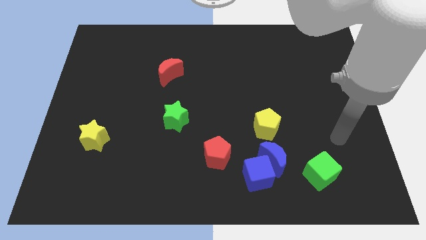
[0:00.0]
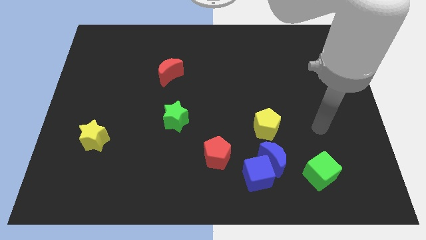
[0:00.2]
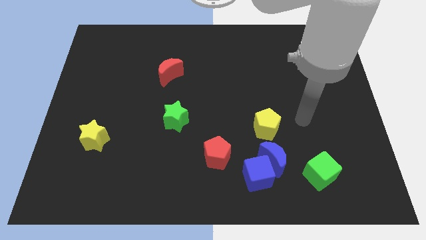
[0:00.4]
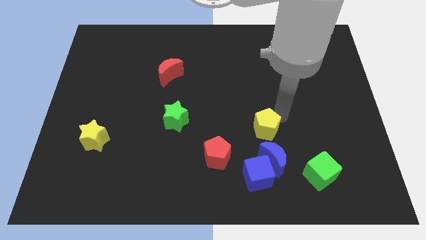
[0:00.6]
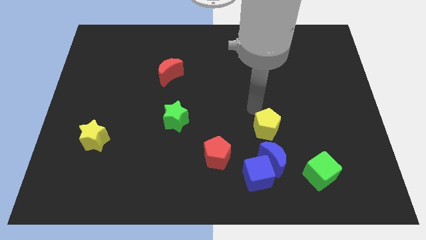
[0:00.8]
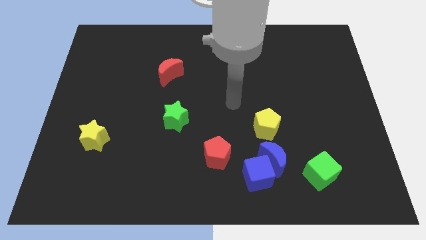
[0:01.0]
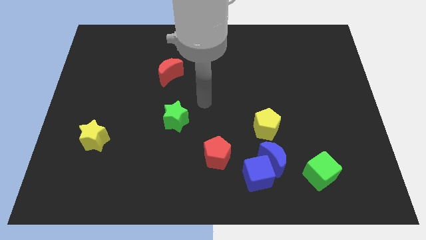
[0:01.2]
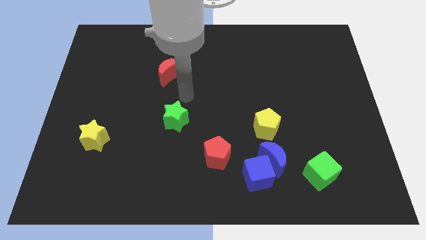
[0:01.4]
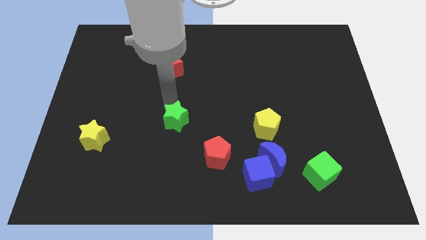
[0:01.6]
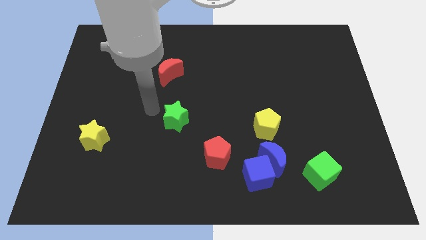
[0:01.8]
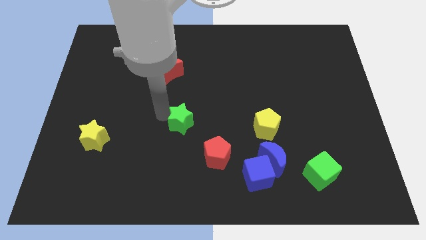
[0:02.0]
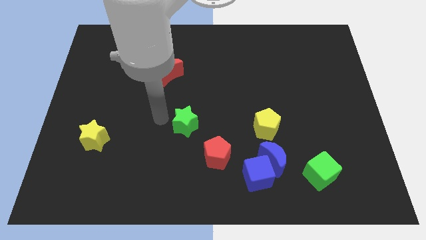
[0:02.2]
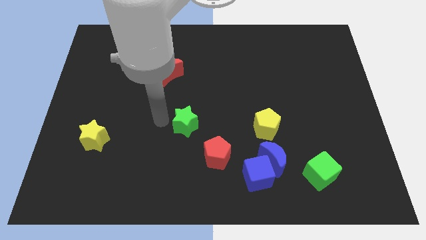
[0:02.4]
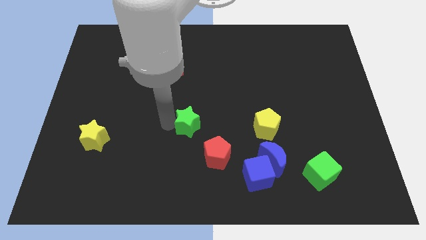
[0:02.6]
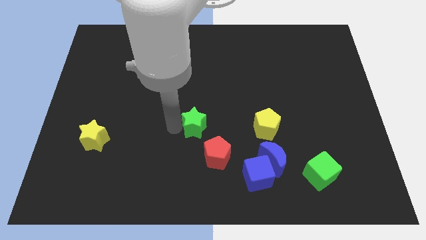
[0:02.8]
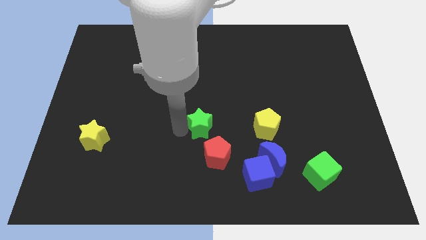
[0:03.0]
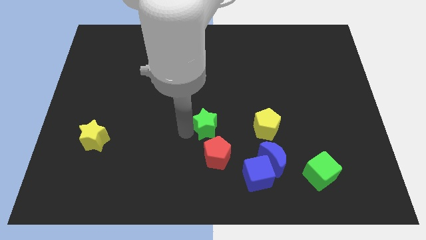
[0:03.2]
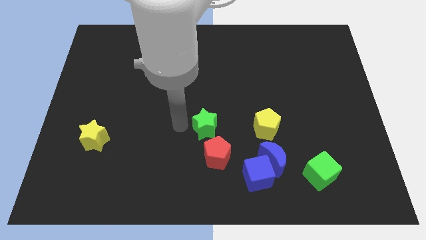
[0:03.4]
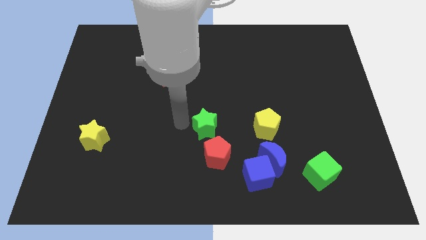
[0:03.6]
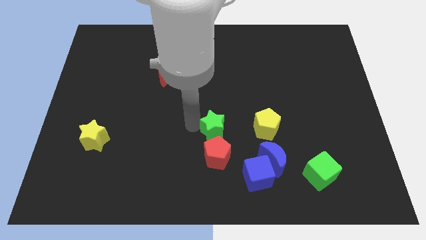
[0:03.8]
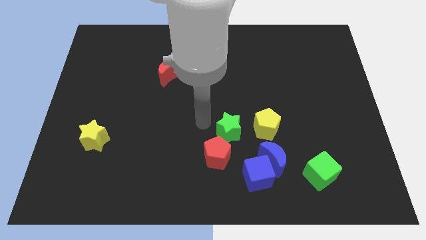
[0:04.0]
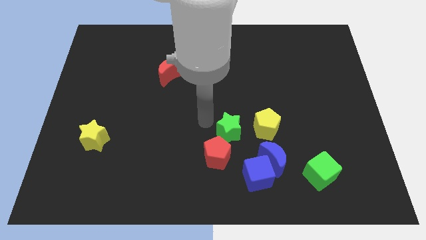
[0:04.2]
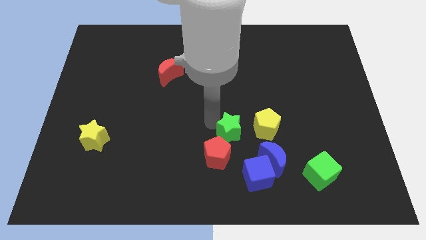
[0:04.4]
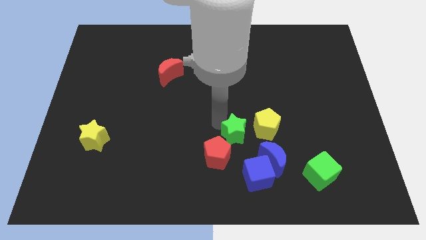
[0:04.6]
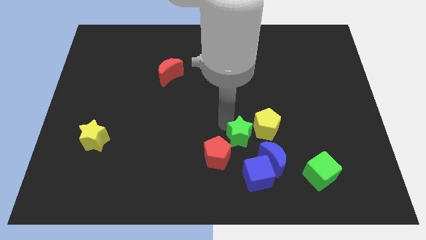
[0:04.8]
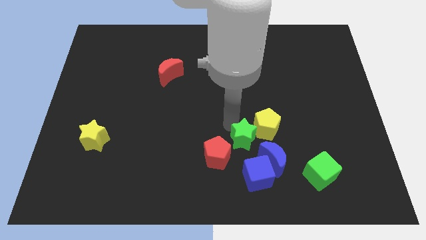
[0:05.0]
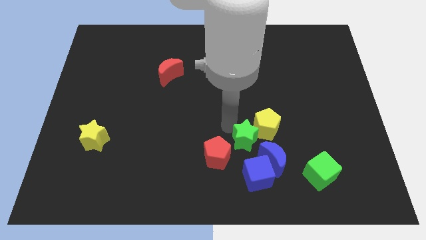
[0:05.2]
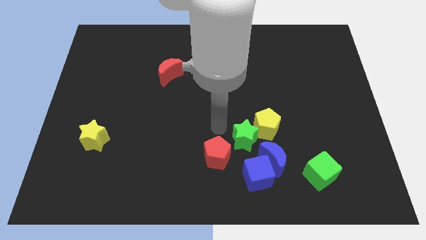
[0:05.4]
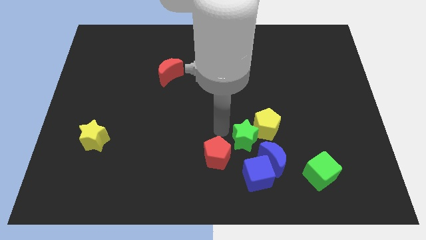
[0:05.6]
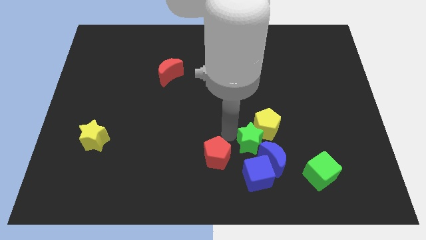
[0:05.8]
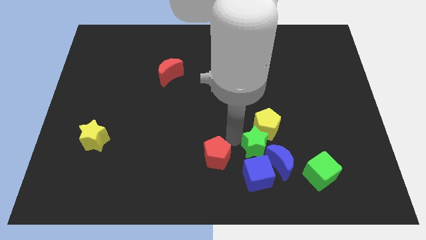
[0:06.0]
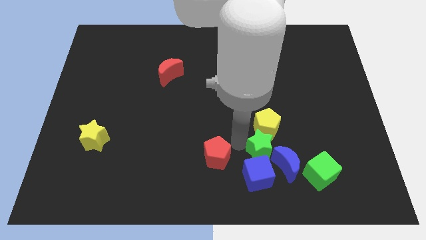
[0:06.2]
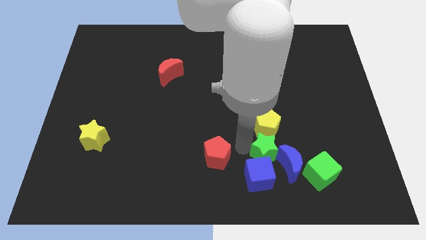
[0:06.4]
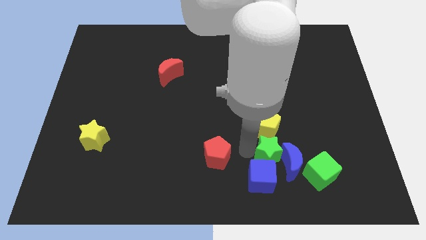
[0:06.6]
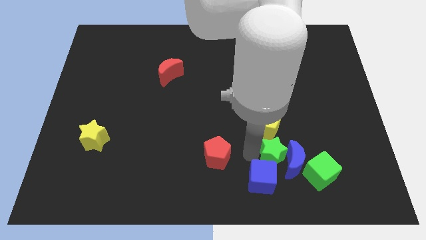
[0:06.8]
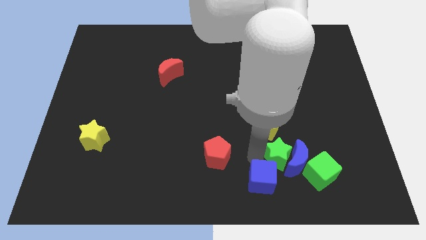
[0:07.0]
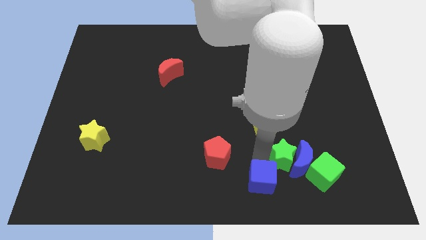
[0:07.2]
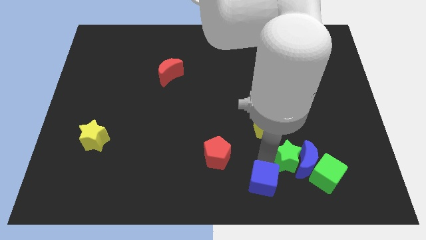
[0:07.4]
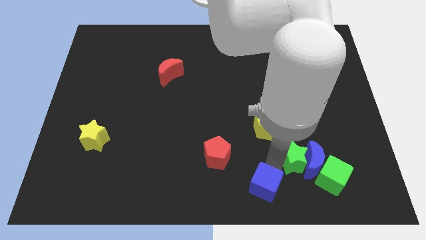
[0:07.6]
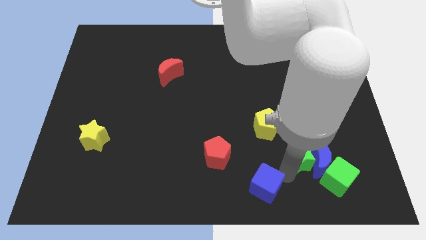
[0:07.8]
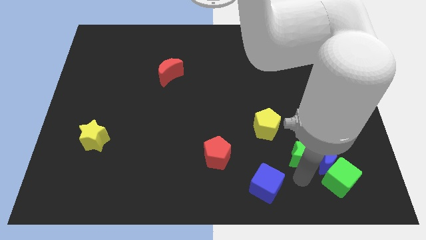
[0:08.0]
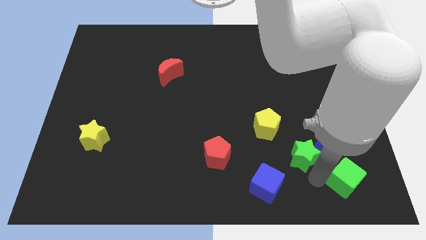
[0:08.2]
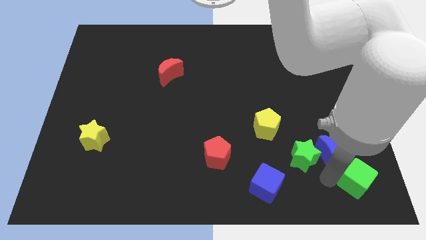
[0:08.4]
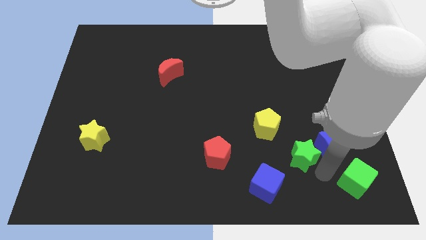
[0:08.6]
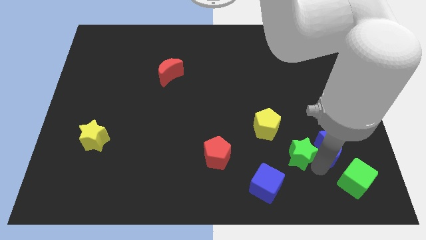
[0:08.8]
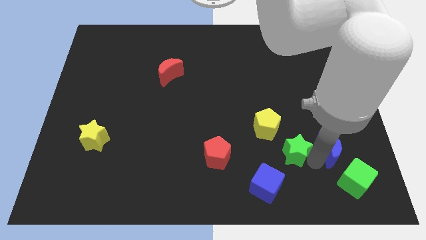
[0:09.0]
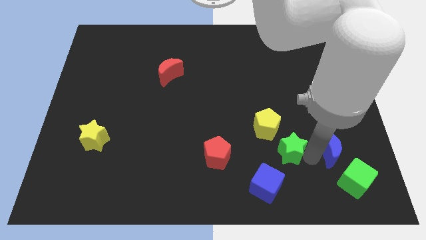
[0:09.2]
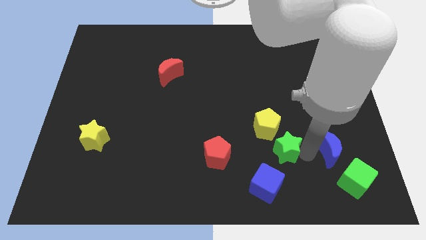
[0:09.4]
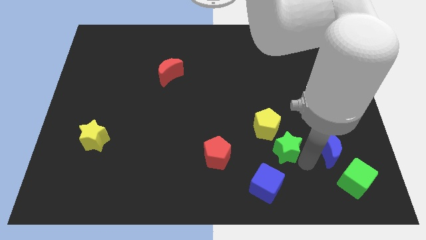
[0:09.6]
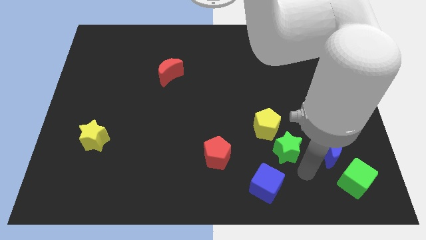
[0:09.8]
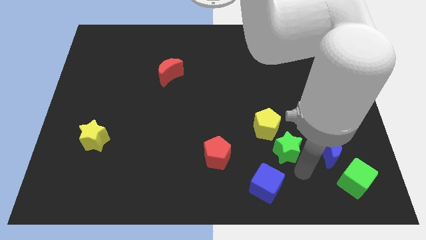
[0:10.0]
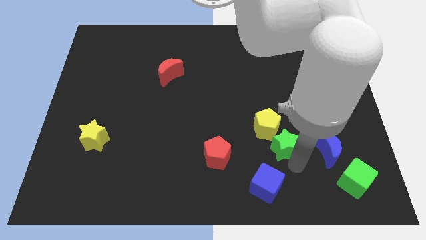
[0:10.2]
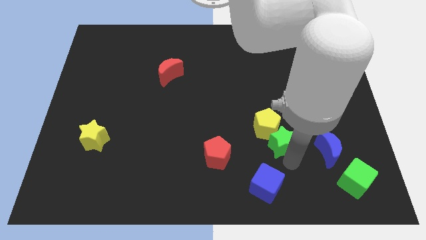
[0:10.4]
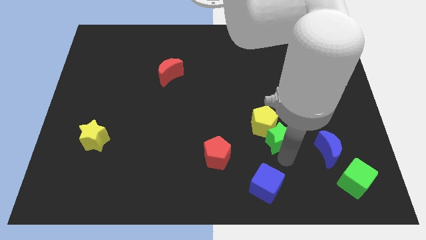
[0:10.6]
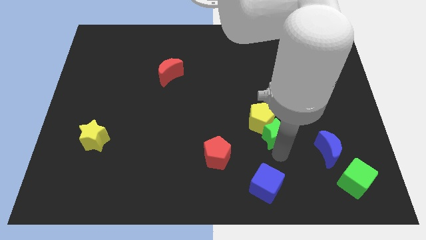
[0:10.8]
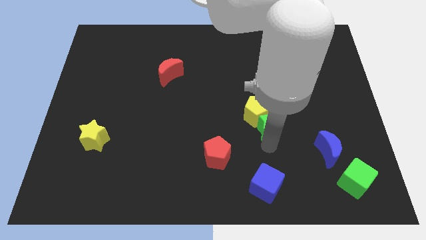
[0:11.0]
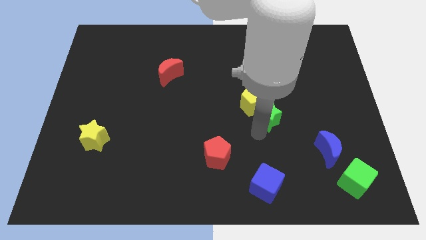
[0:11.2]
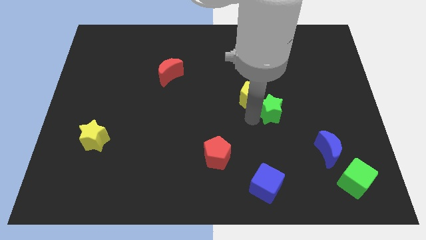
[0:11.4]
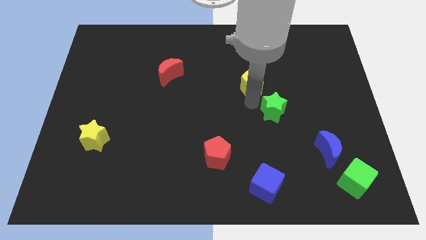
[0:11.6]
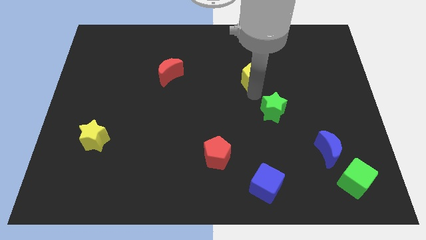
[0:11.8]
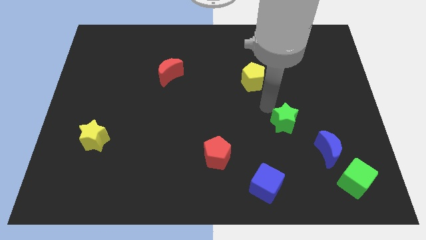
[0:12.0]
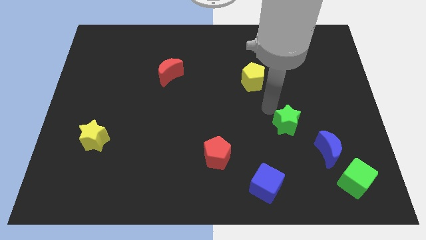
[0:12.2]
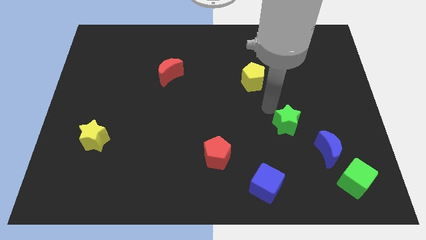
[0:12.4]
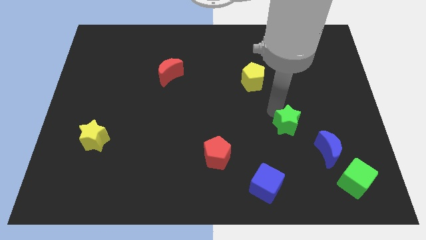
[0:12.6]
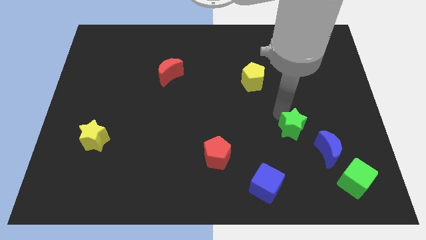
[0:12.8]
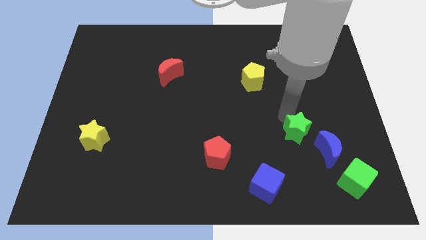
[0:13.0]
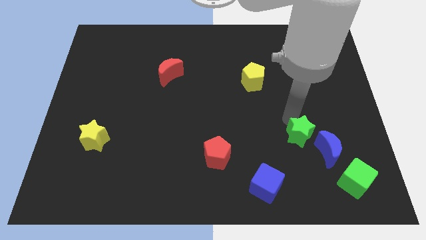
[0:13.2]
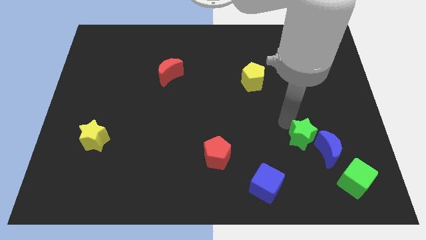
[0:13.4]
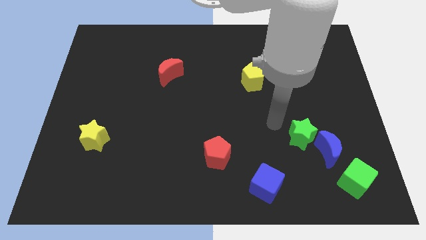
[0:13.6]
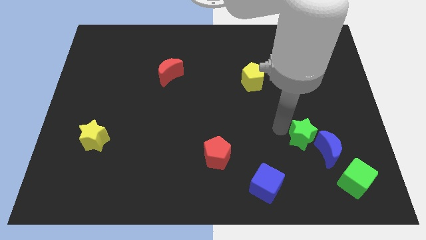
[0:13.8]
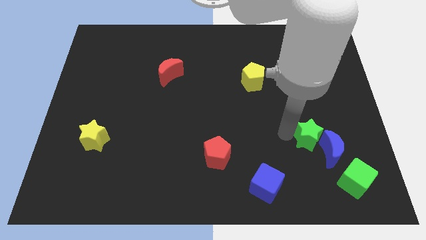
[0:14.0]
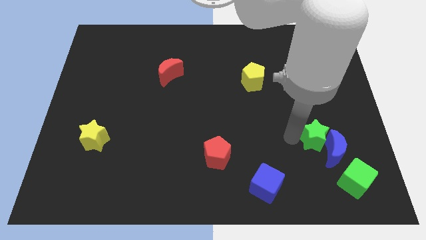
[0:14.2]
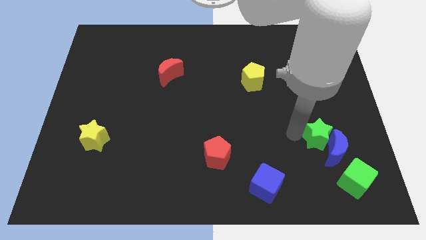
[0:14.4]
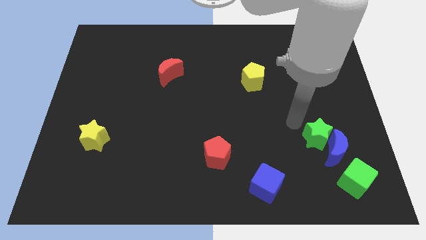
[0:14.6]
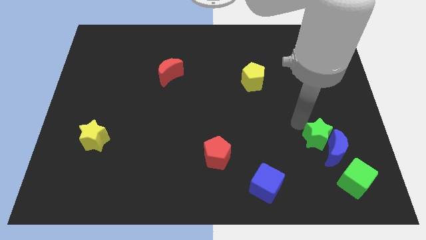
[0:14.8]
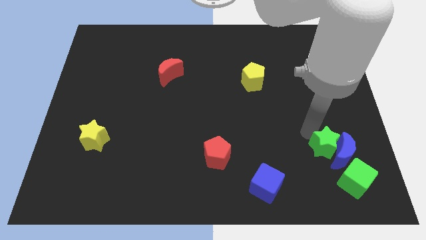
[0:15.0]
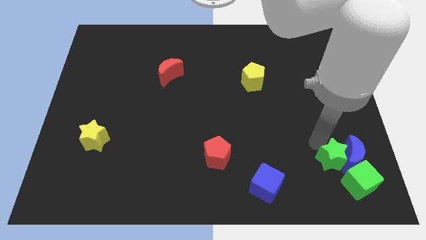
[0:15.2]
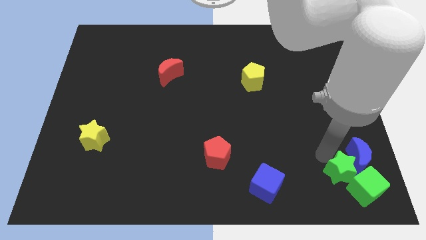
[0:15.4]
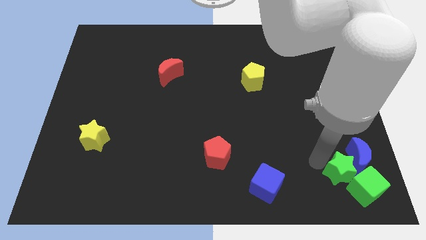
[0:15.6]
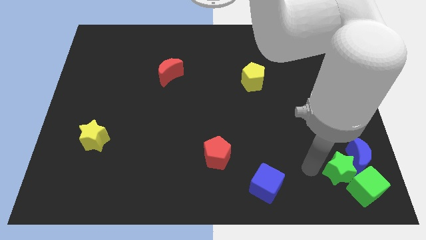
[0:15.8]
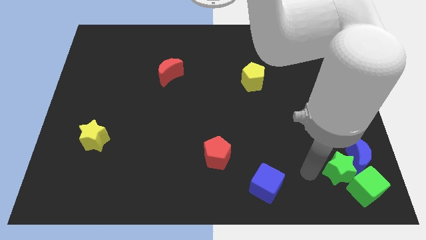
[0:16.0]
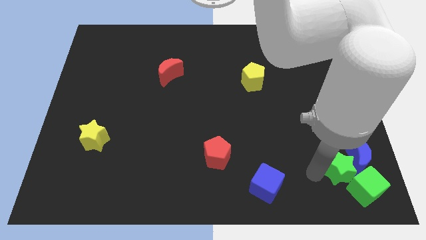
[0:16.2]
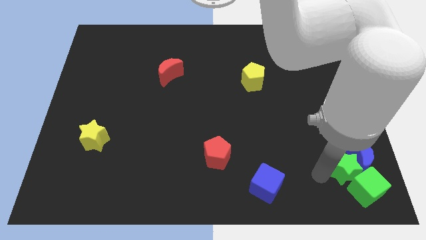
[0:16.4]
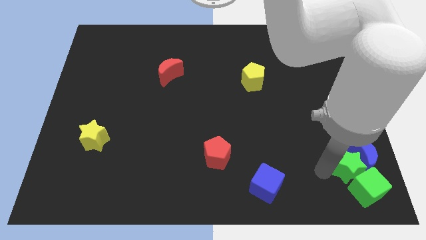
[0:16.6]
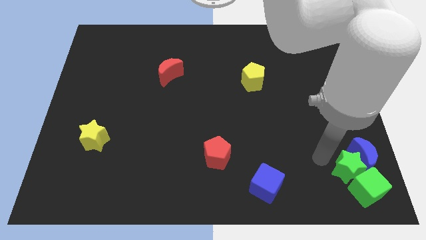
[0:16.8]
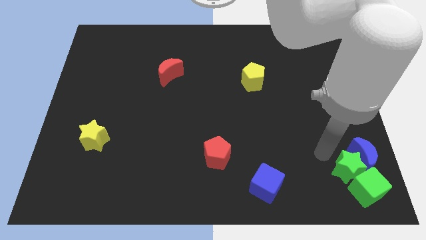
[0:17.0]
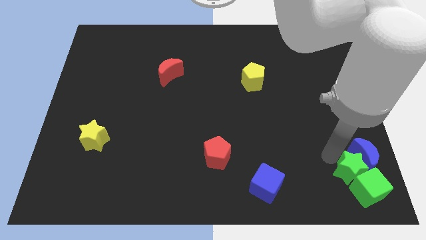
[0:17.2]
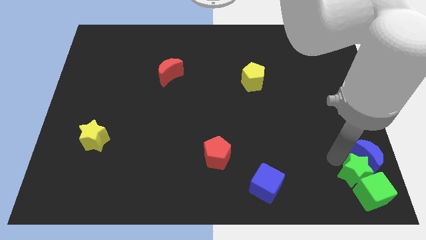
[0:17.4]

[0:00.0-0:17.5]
push the green star to the bottom right
